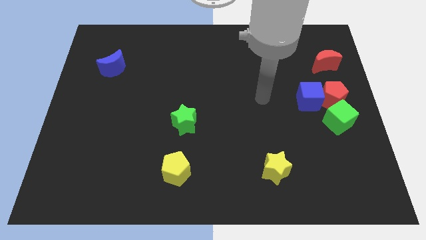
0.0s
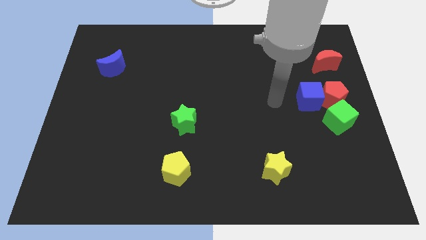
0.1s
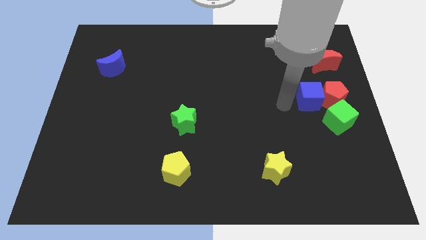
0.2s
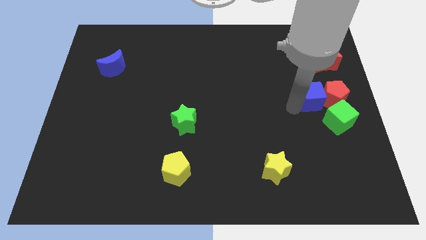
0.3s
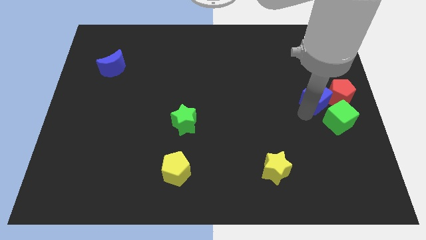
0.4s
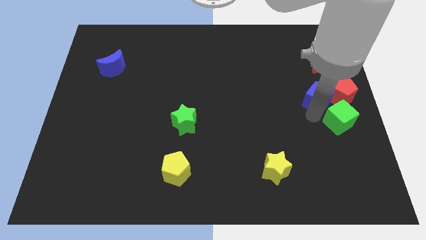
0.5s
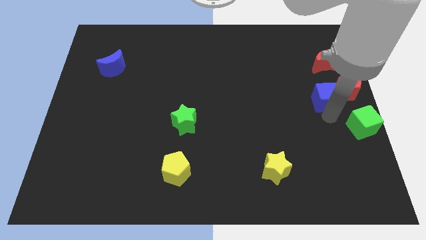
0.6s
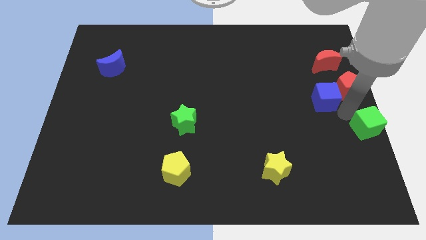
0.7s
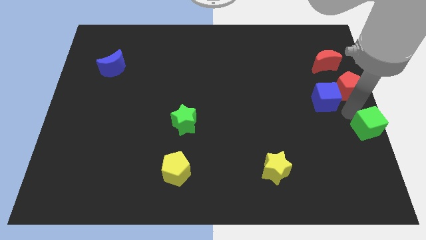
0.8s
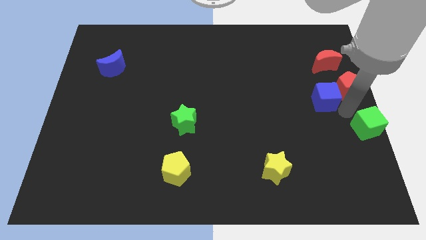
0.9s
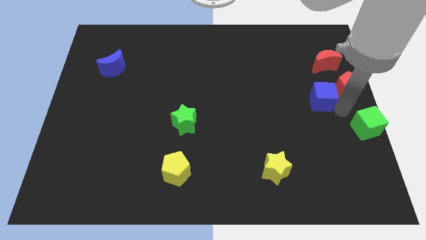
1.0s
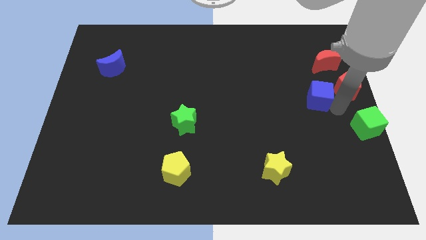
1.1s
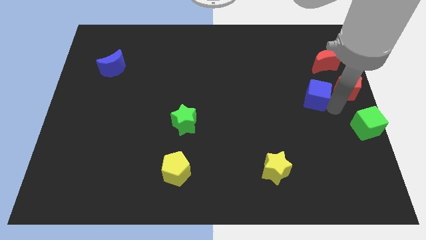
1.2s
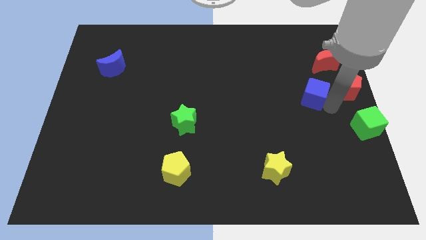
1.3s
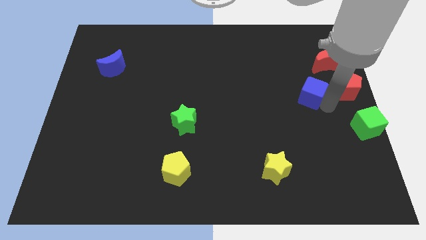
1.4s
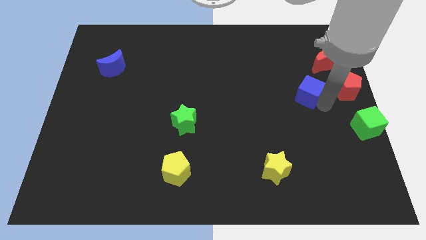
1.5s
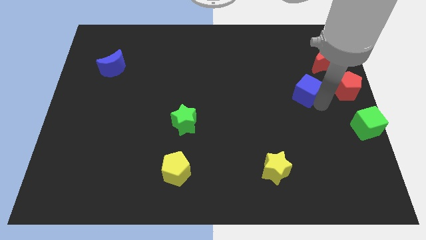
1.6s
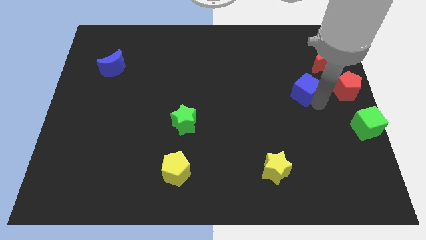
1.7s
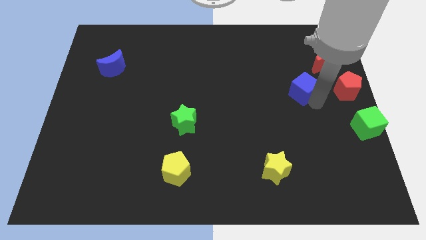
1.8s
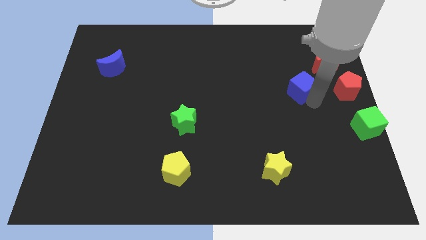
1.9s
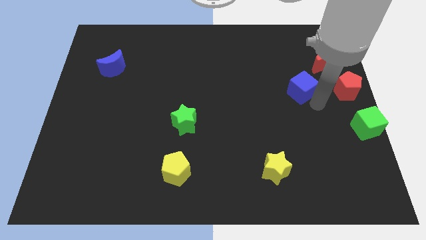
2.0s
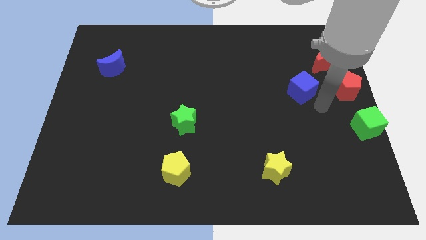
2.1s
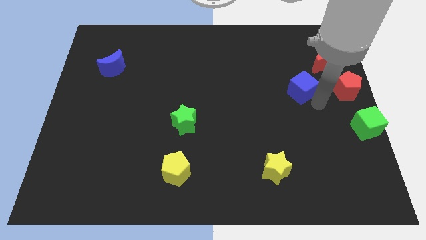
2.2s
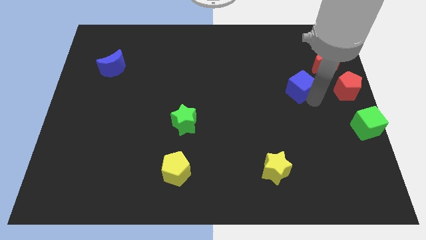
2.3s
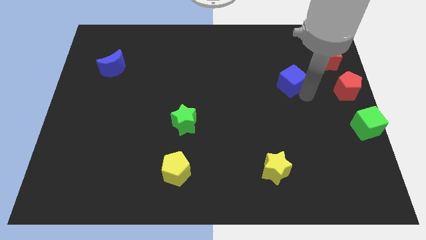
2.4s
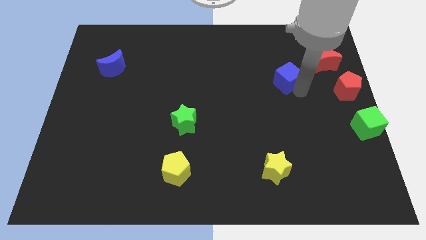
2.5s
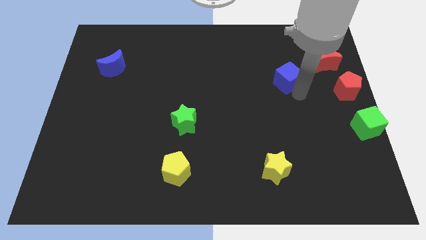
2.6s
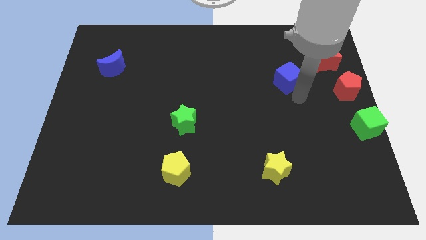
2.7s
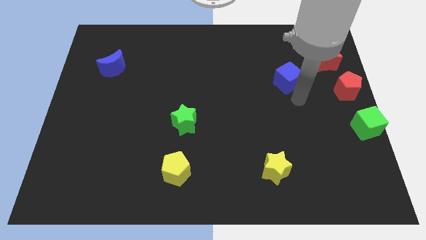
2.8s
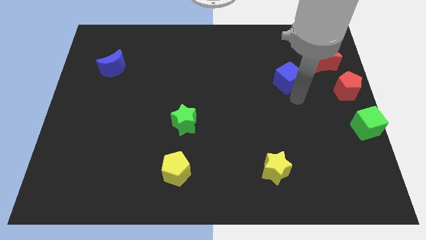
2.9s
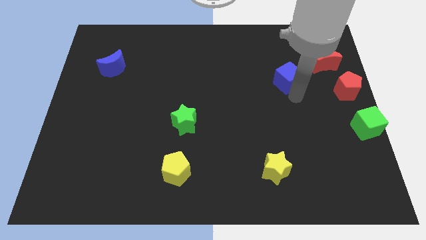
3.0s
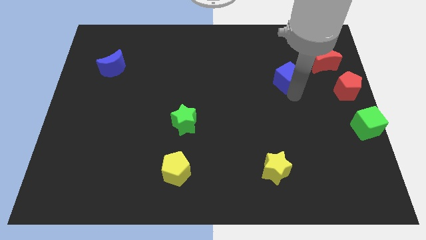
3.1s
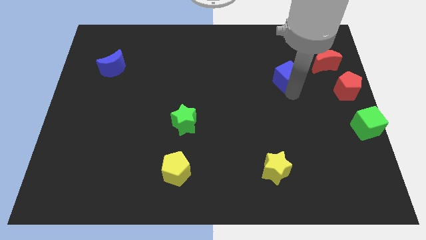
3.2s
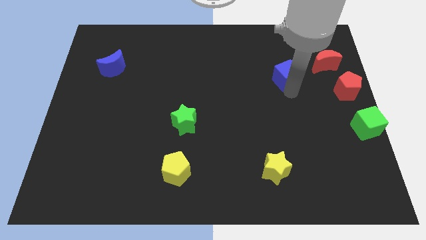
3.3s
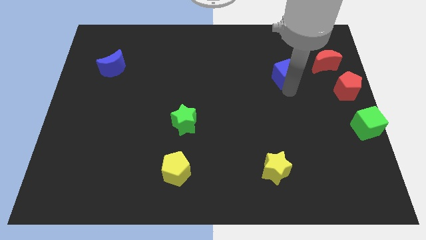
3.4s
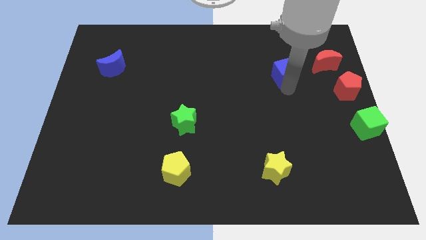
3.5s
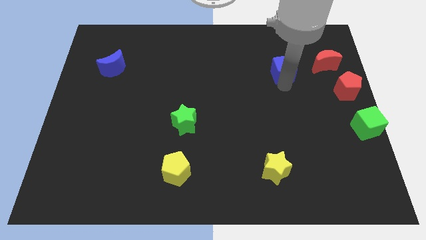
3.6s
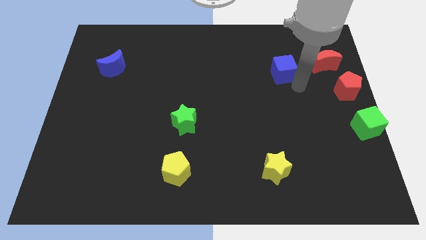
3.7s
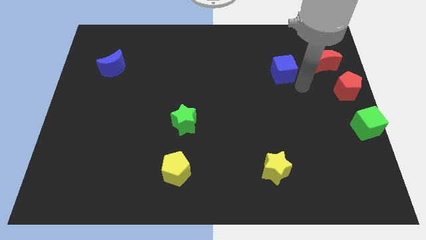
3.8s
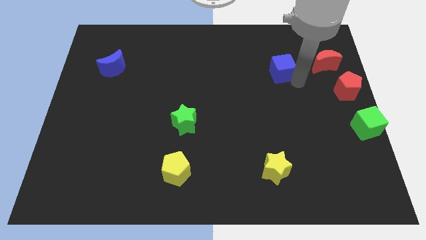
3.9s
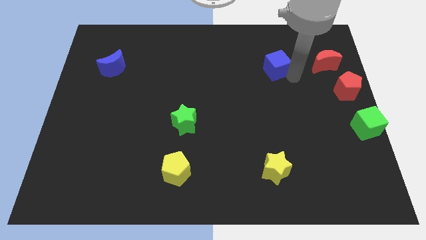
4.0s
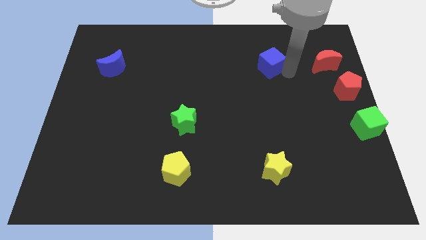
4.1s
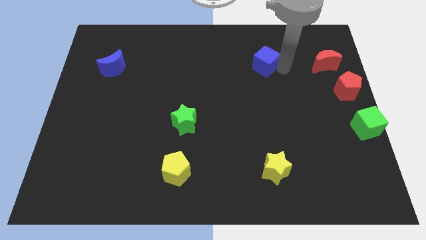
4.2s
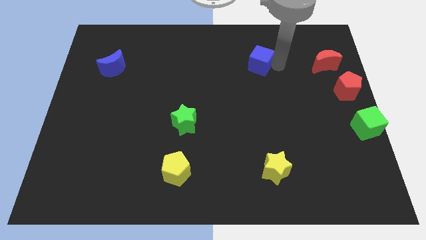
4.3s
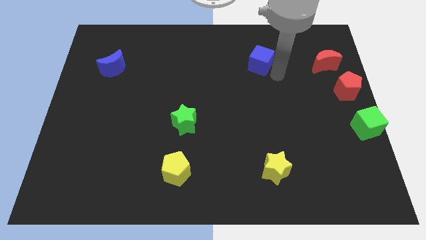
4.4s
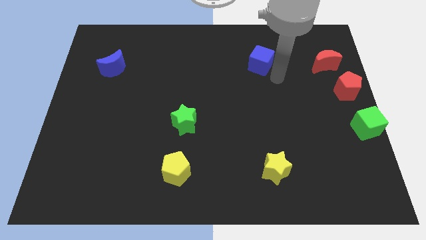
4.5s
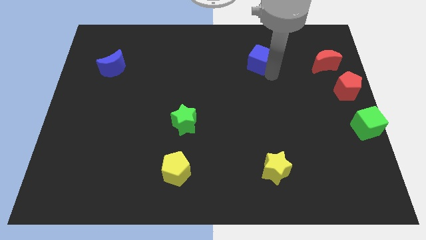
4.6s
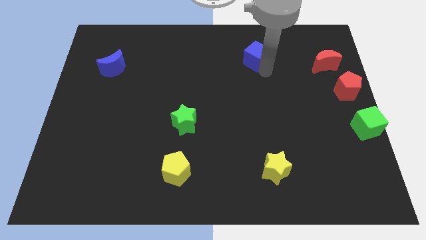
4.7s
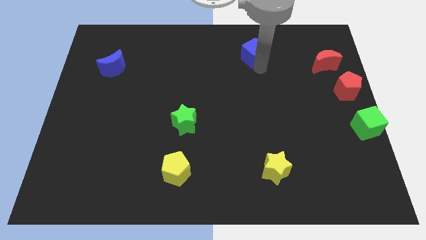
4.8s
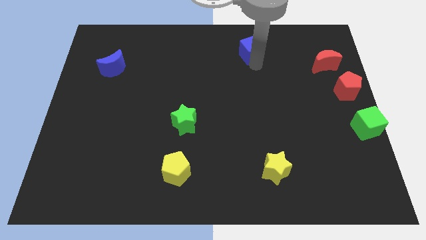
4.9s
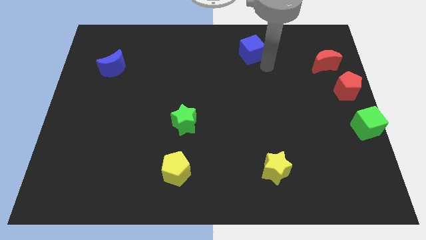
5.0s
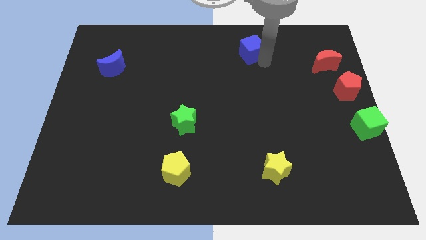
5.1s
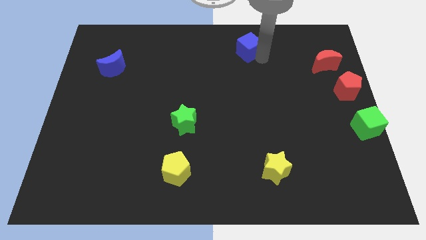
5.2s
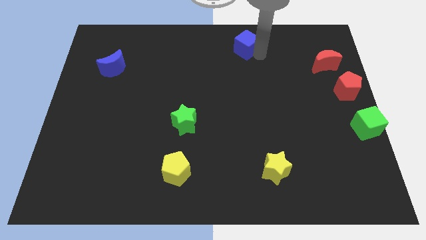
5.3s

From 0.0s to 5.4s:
move the blue cube to the towards your base

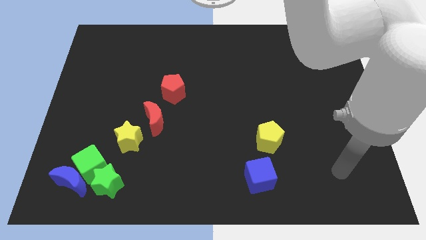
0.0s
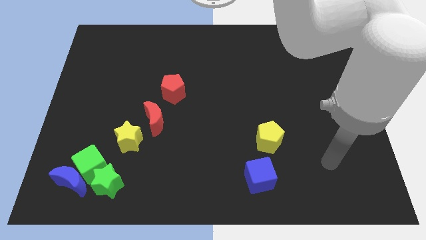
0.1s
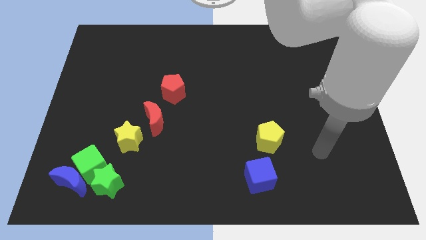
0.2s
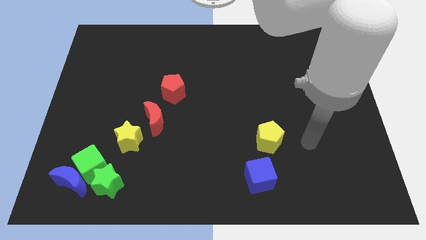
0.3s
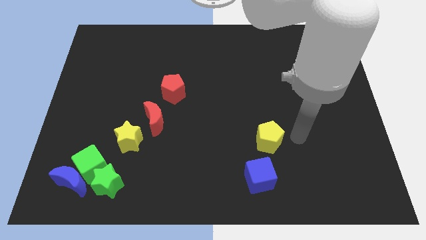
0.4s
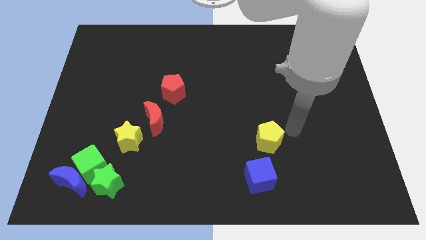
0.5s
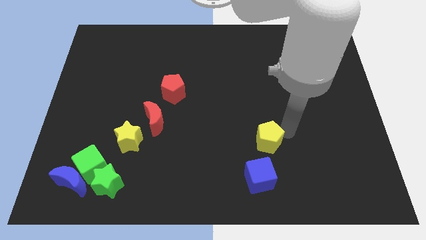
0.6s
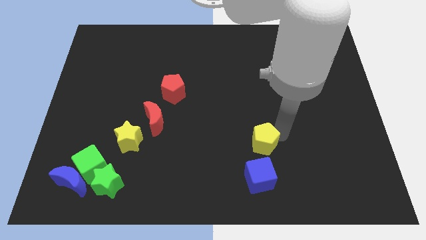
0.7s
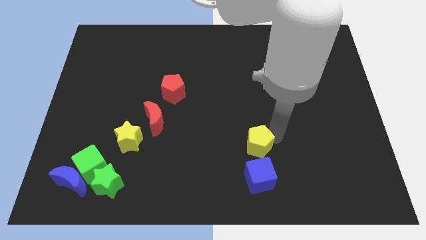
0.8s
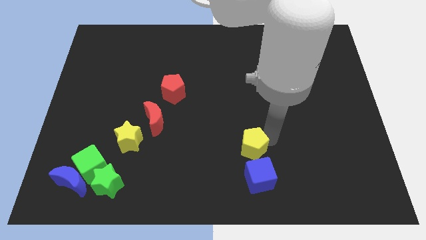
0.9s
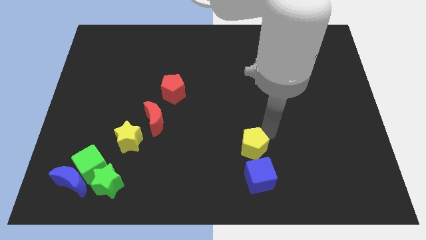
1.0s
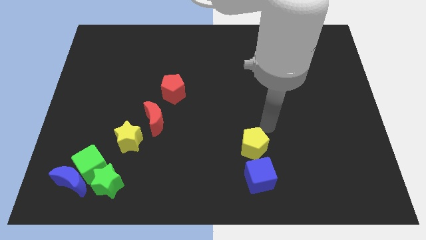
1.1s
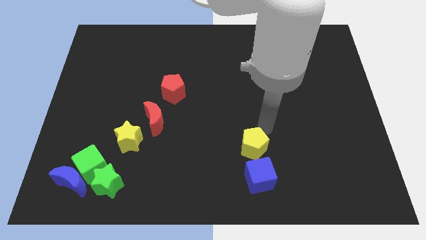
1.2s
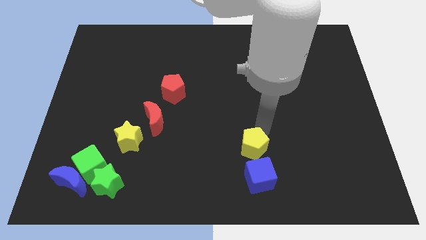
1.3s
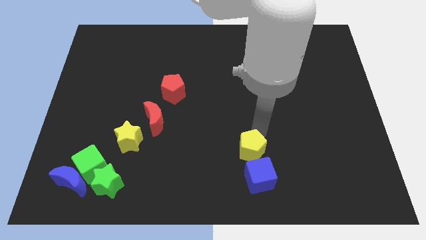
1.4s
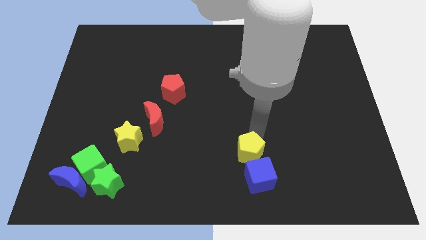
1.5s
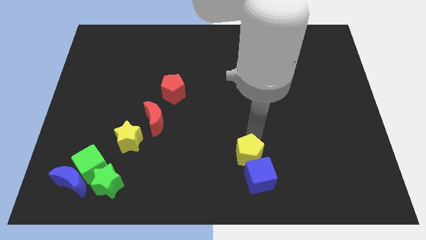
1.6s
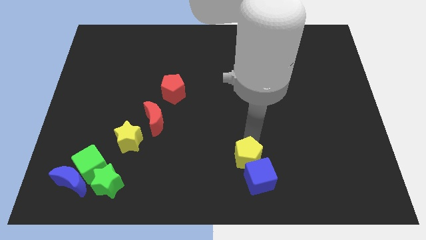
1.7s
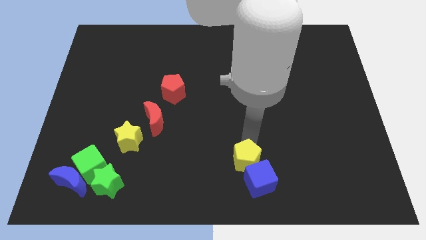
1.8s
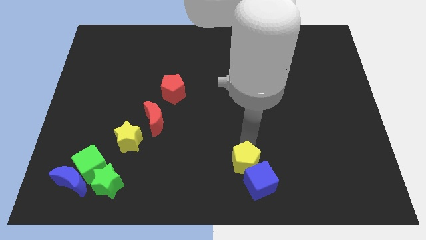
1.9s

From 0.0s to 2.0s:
put the yellow pentagon to the bottom side
